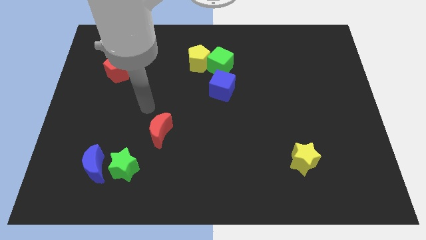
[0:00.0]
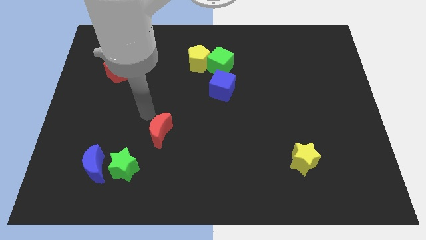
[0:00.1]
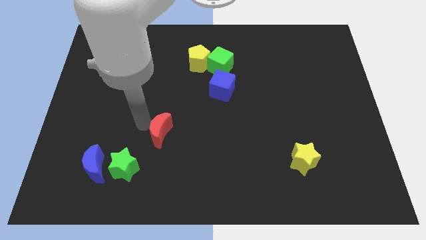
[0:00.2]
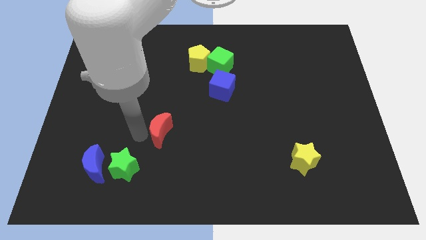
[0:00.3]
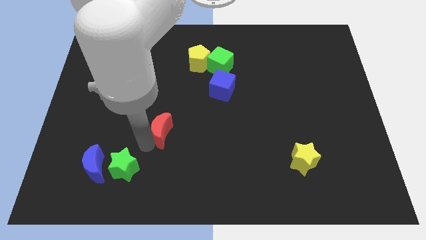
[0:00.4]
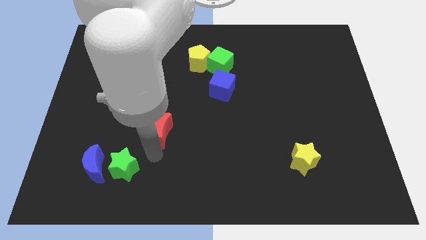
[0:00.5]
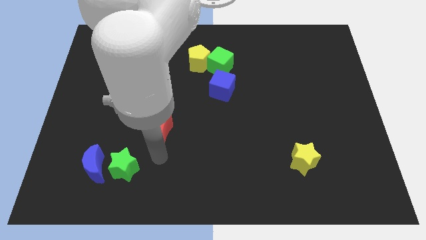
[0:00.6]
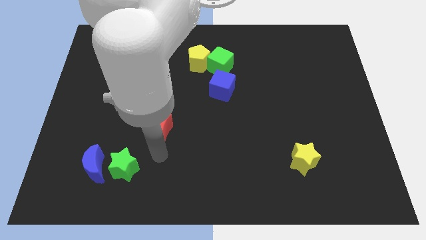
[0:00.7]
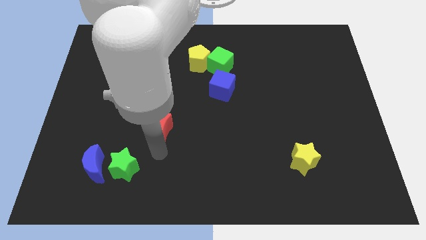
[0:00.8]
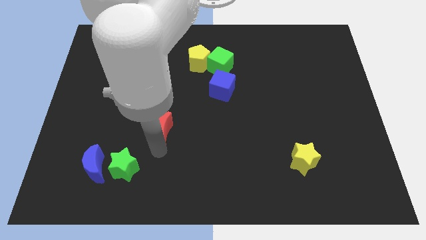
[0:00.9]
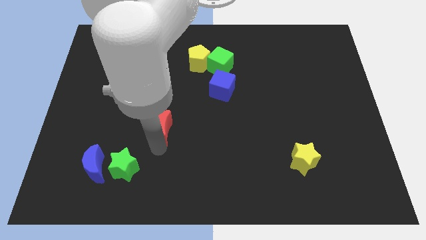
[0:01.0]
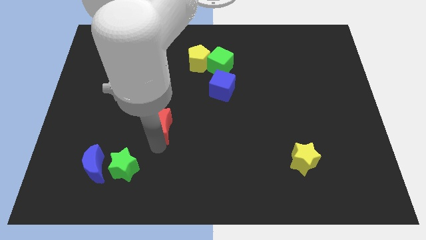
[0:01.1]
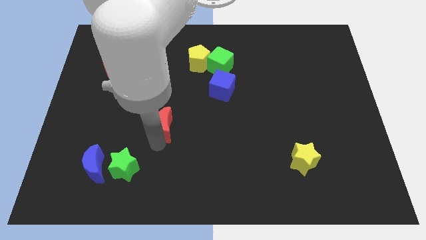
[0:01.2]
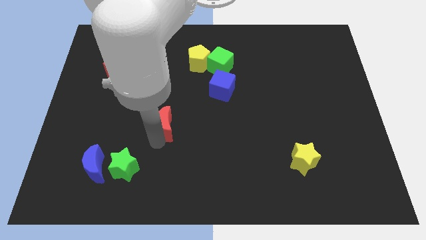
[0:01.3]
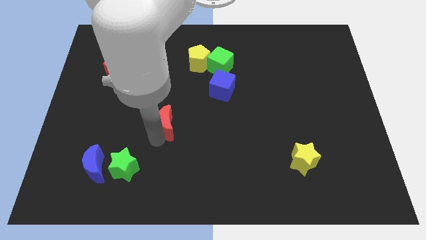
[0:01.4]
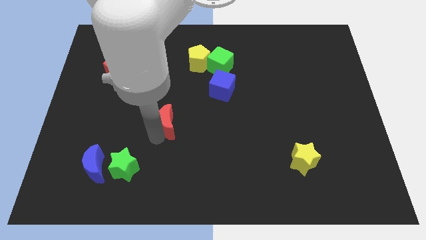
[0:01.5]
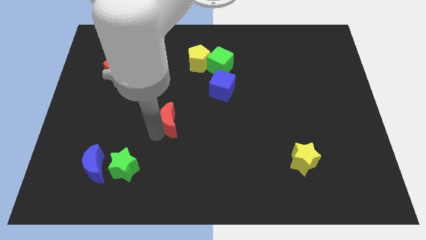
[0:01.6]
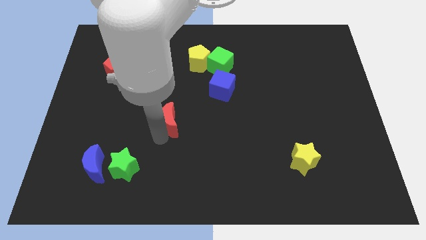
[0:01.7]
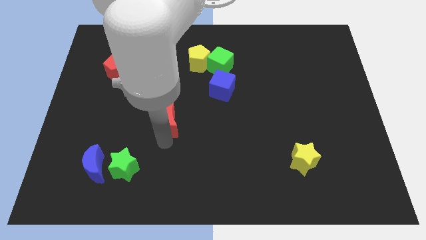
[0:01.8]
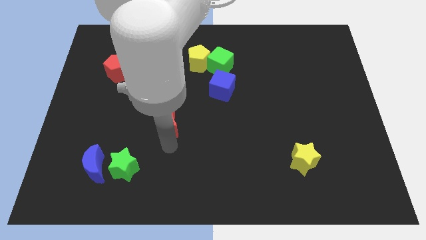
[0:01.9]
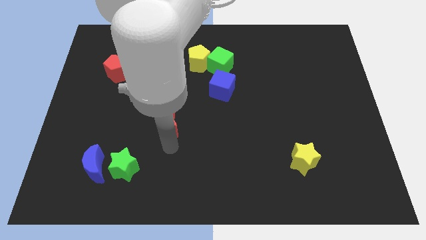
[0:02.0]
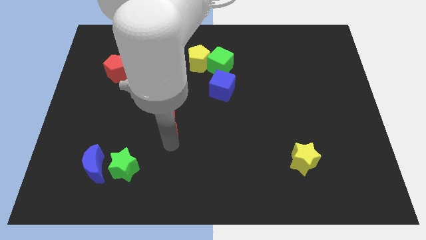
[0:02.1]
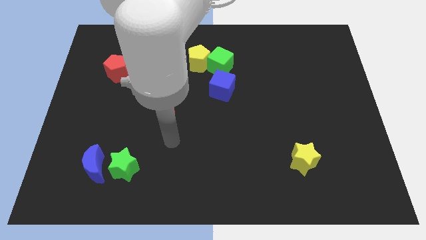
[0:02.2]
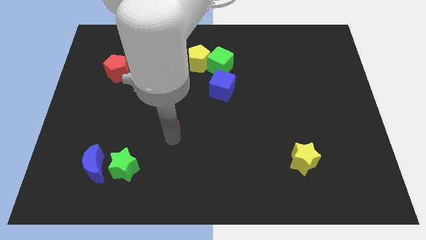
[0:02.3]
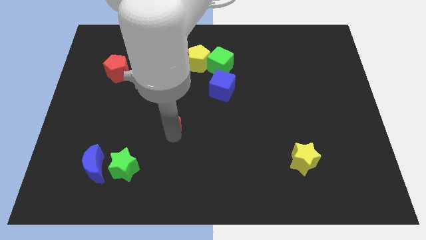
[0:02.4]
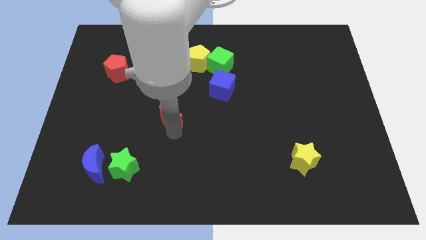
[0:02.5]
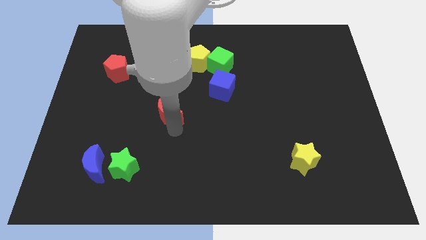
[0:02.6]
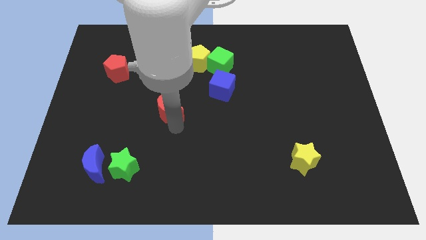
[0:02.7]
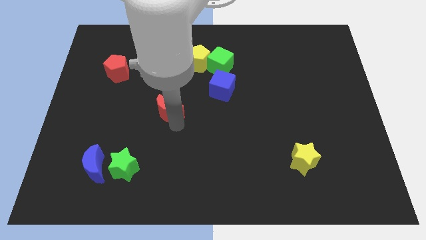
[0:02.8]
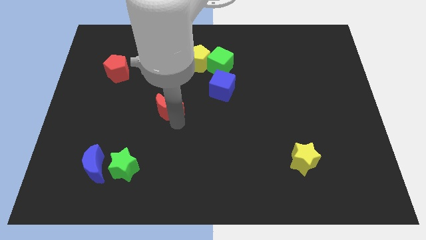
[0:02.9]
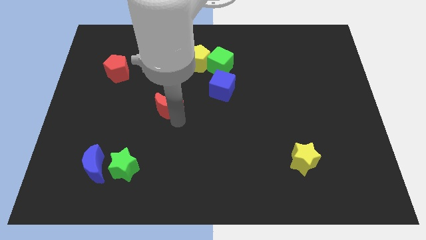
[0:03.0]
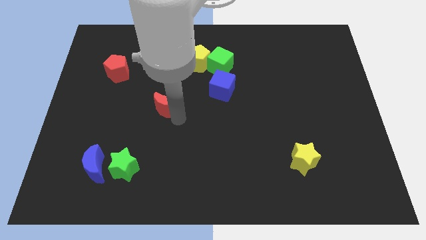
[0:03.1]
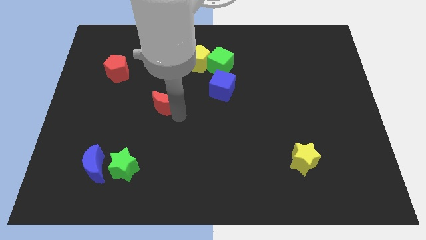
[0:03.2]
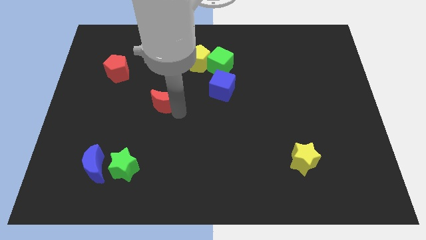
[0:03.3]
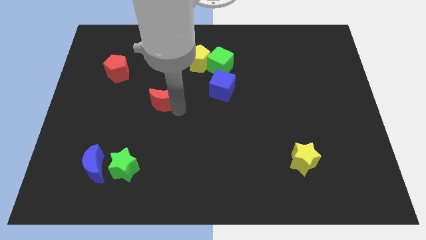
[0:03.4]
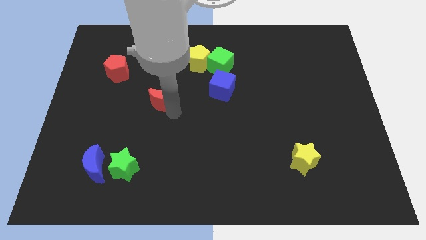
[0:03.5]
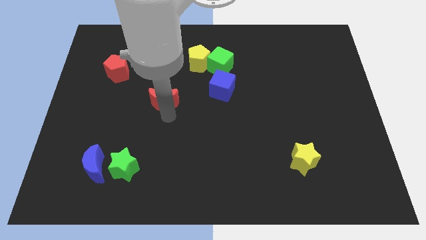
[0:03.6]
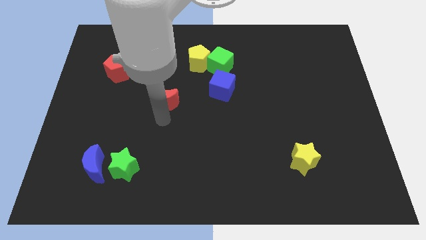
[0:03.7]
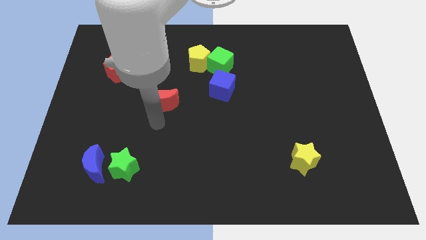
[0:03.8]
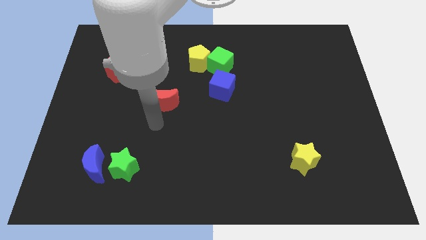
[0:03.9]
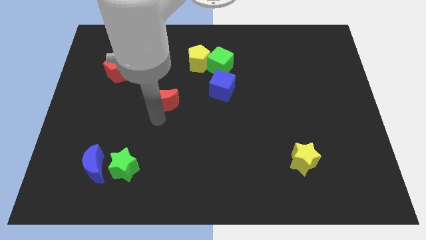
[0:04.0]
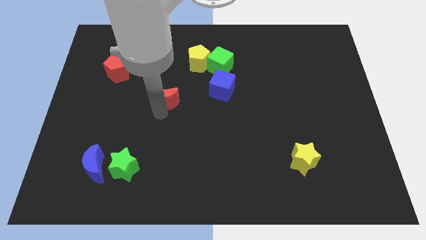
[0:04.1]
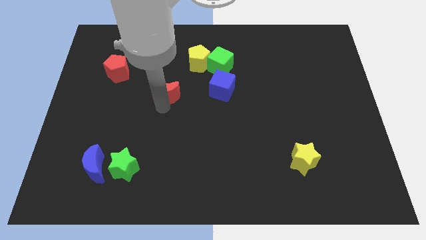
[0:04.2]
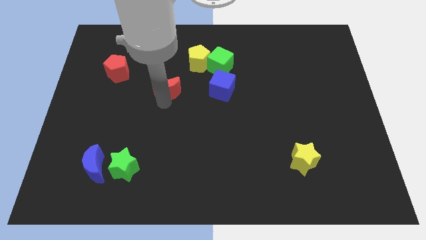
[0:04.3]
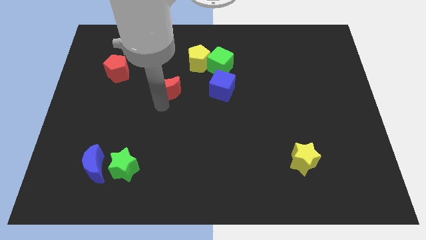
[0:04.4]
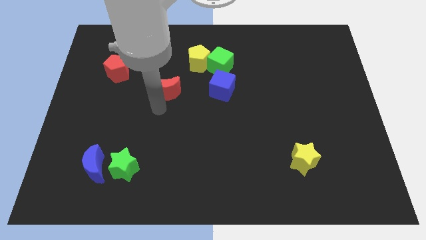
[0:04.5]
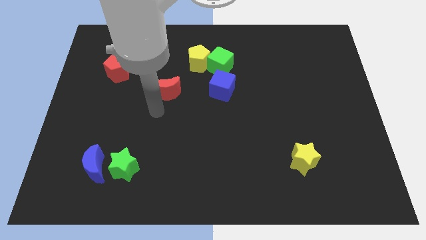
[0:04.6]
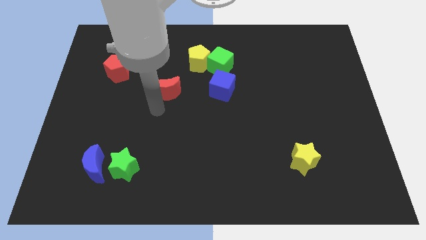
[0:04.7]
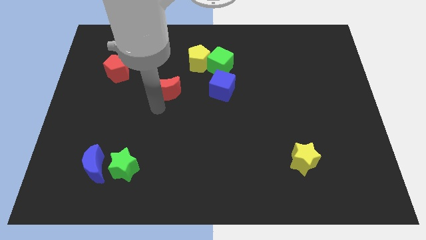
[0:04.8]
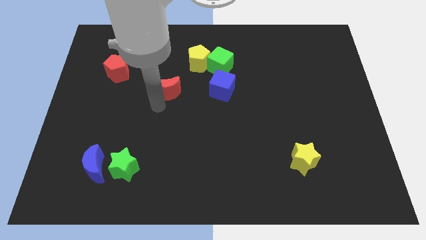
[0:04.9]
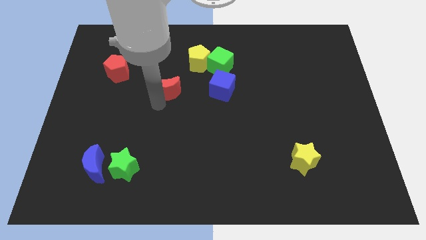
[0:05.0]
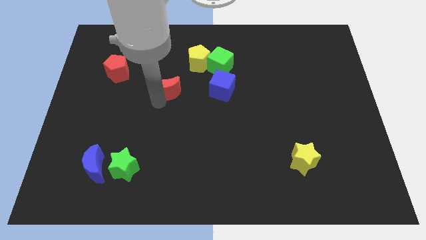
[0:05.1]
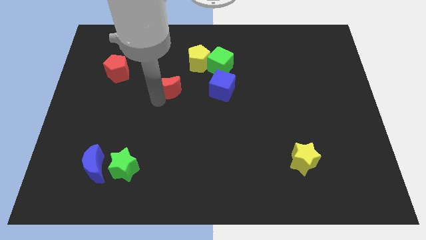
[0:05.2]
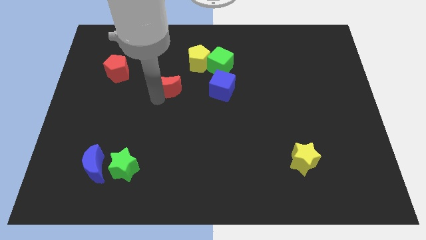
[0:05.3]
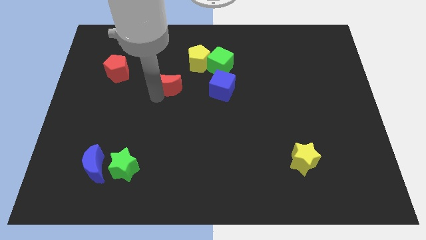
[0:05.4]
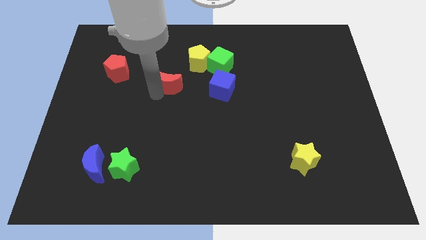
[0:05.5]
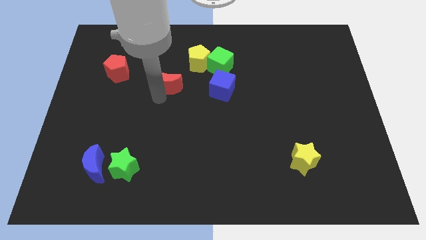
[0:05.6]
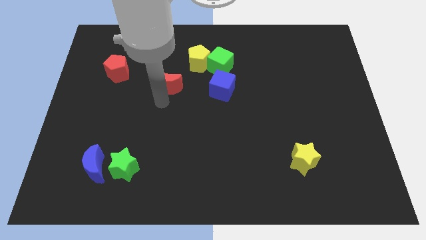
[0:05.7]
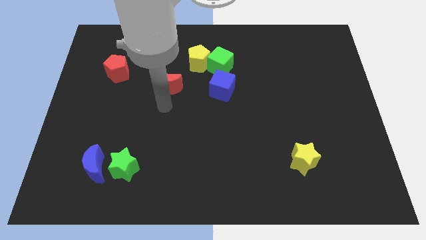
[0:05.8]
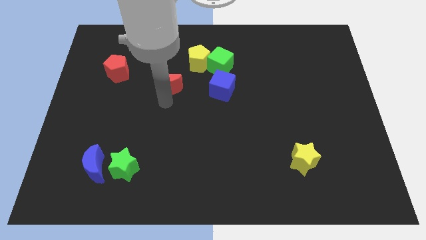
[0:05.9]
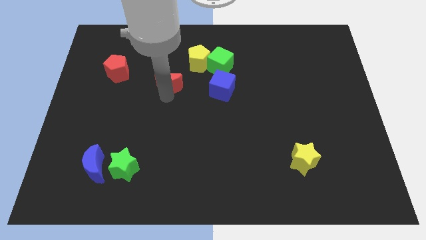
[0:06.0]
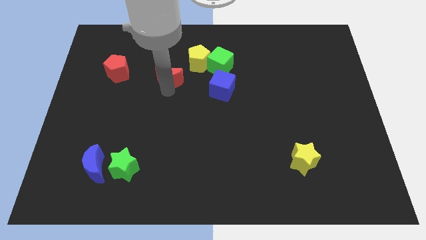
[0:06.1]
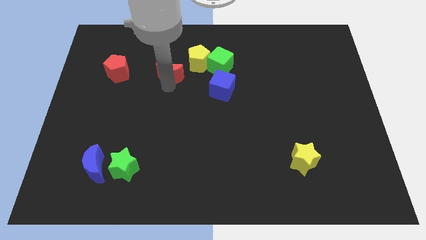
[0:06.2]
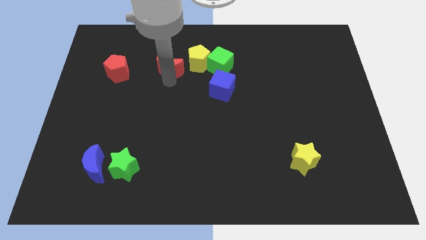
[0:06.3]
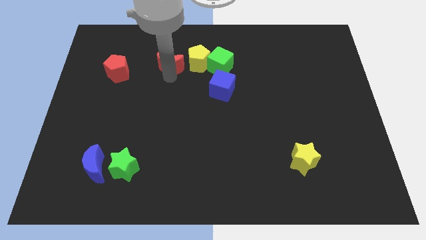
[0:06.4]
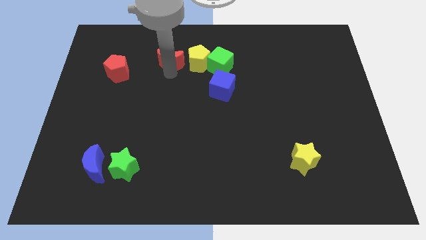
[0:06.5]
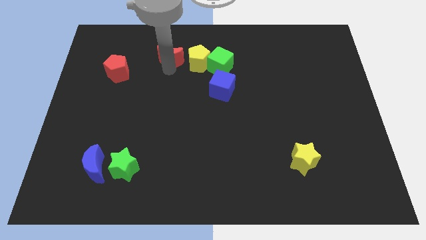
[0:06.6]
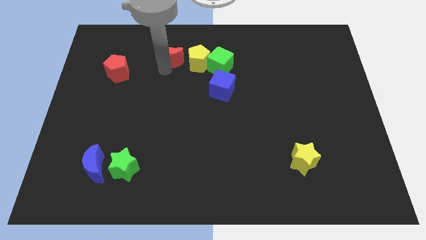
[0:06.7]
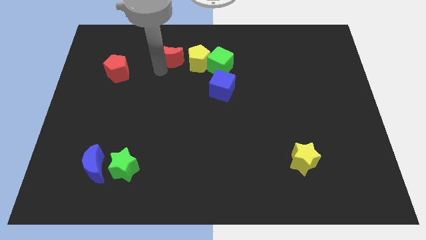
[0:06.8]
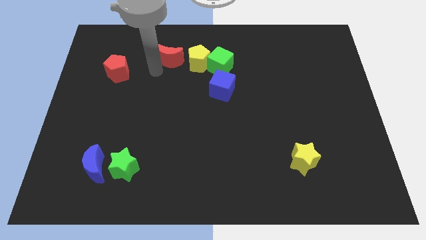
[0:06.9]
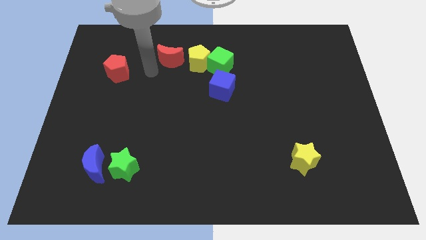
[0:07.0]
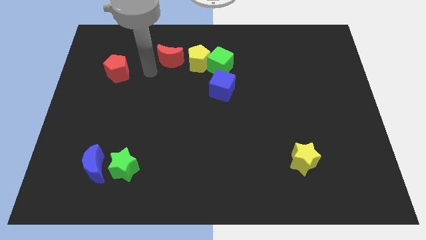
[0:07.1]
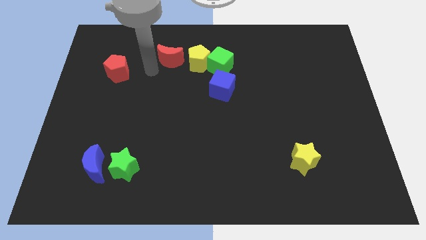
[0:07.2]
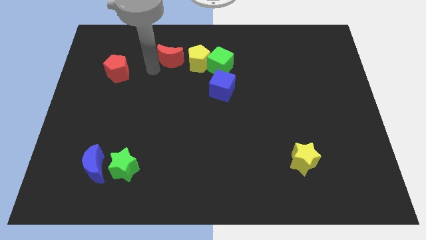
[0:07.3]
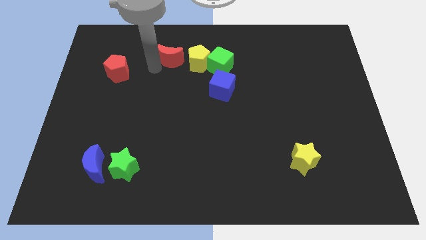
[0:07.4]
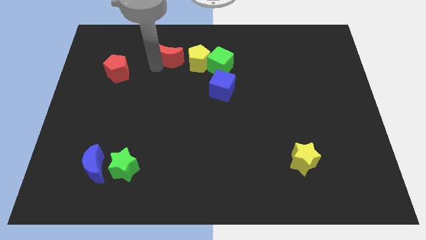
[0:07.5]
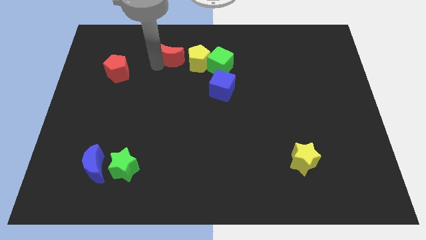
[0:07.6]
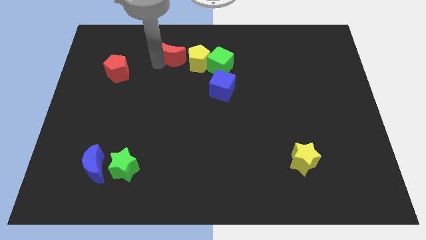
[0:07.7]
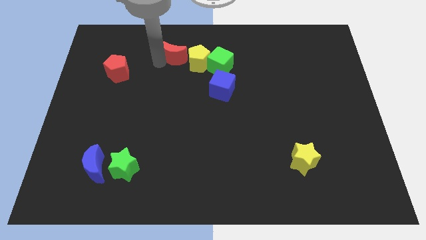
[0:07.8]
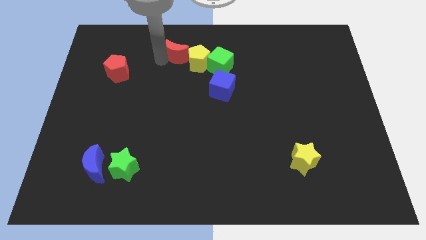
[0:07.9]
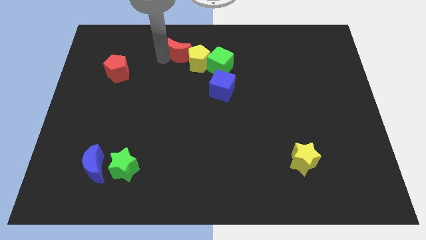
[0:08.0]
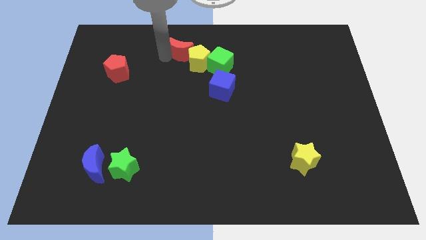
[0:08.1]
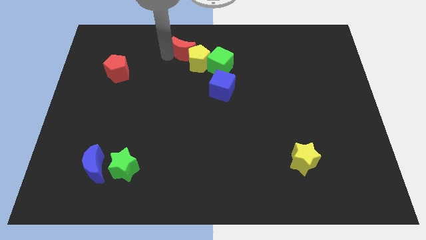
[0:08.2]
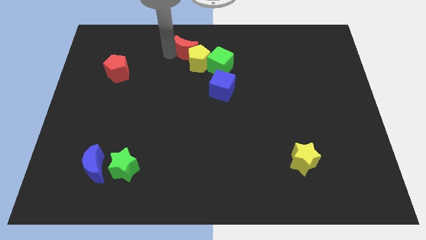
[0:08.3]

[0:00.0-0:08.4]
slide the red moon to the top
